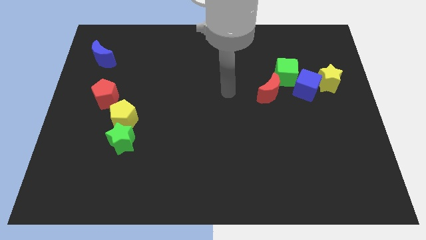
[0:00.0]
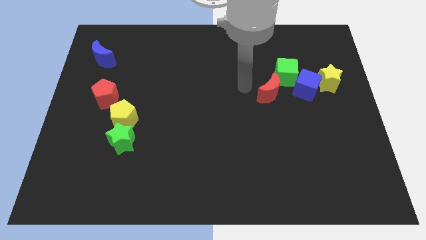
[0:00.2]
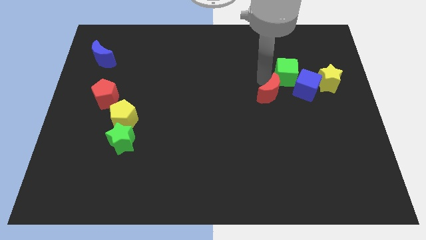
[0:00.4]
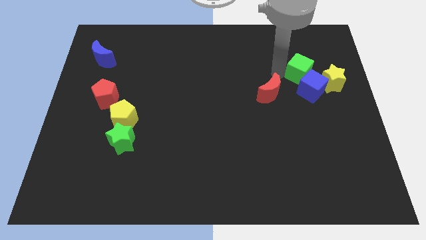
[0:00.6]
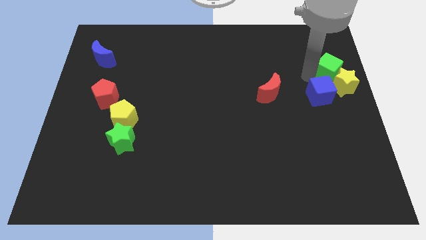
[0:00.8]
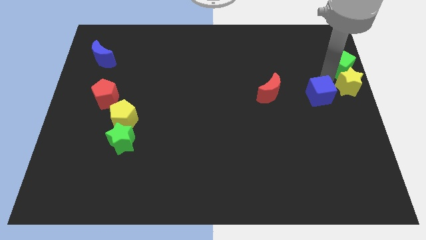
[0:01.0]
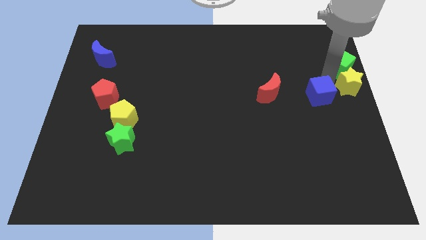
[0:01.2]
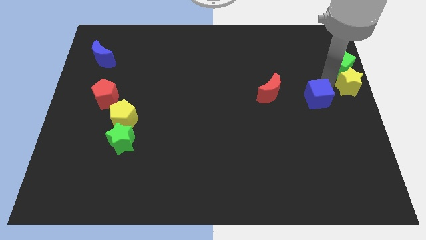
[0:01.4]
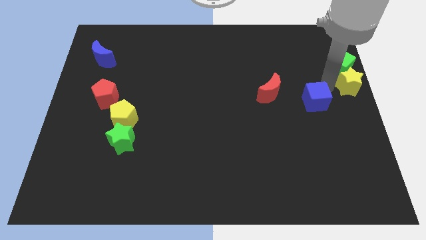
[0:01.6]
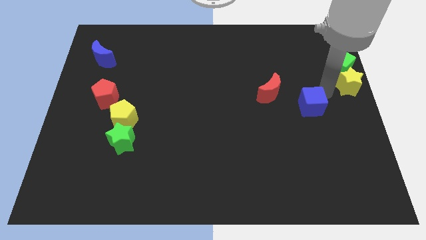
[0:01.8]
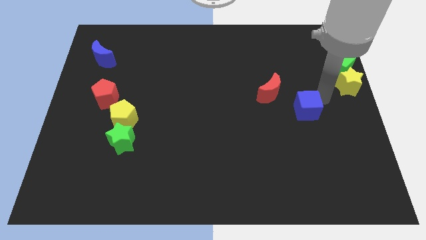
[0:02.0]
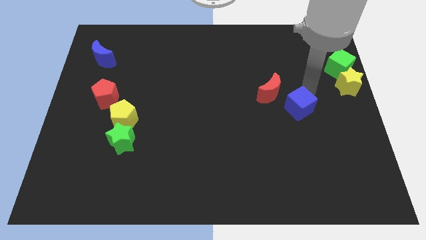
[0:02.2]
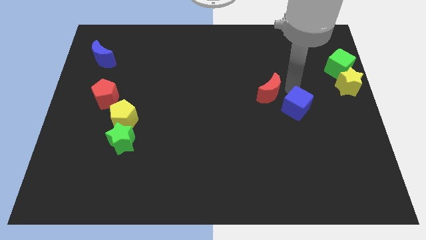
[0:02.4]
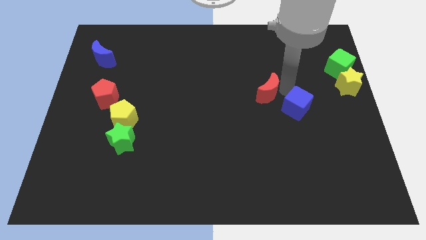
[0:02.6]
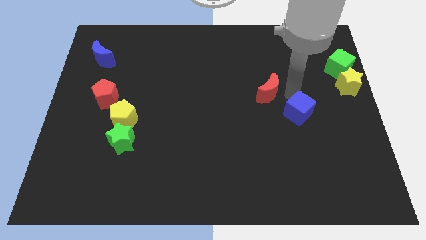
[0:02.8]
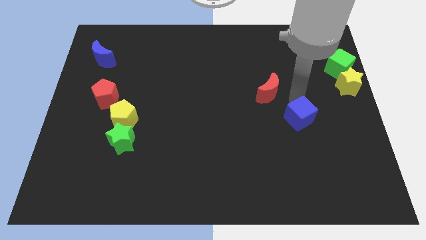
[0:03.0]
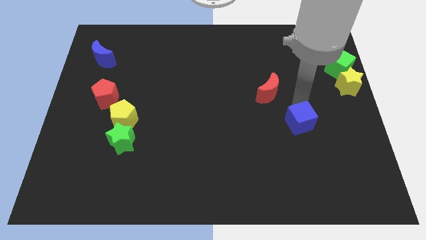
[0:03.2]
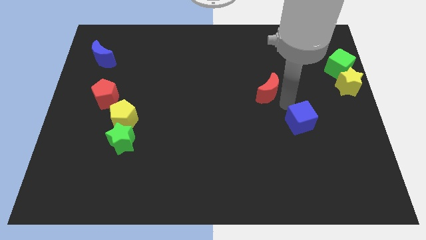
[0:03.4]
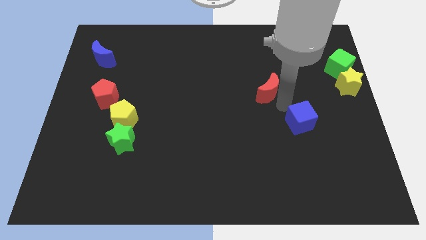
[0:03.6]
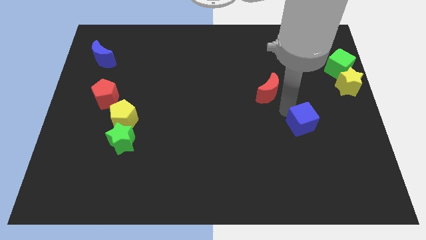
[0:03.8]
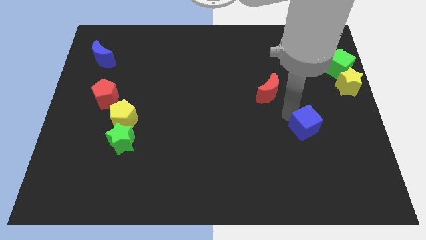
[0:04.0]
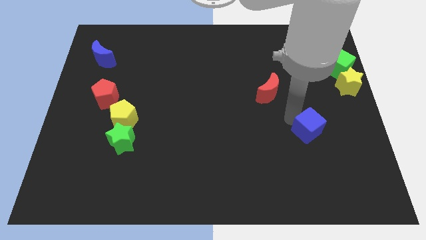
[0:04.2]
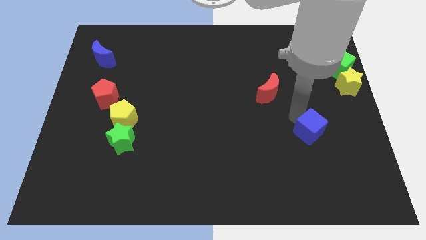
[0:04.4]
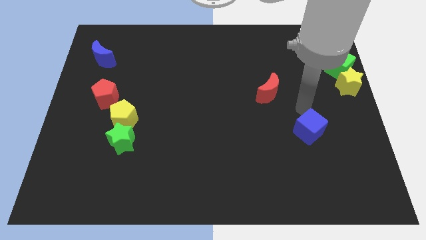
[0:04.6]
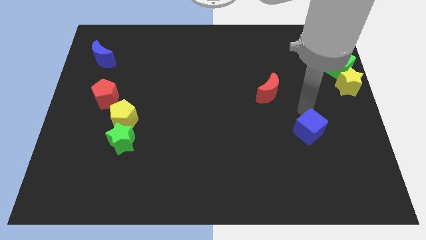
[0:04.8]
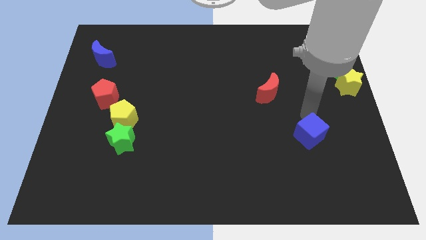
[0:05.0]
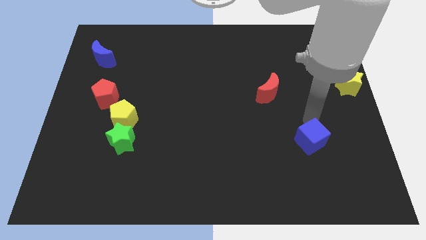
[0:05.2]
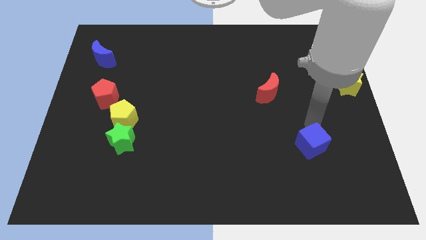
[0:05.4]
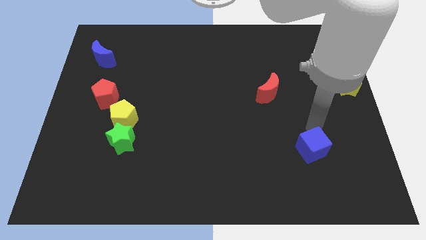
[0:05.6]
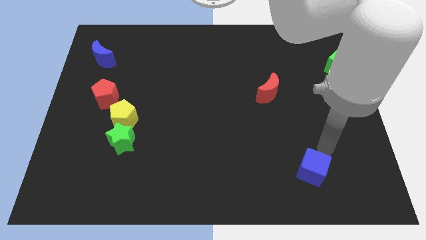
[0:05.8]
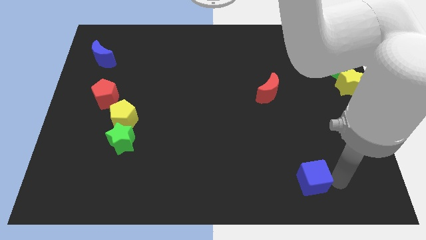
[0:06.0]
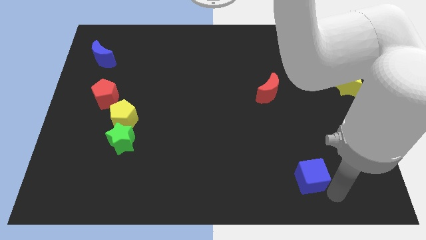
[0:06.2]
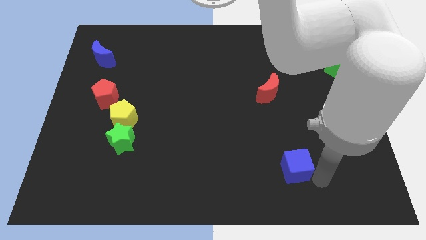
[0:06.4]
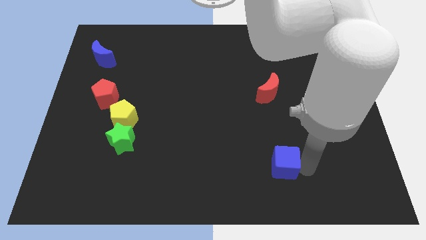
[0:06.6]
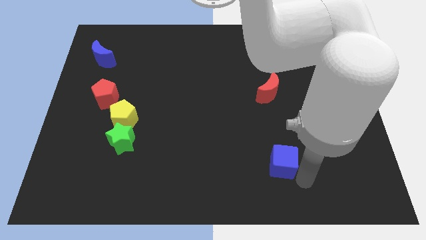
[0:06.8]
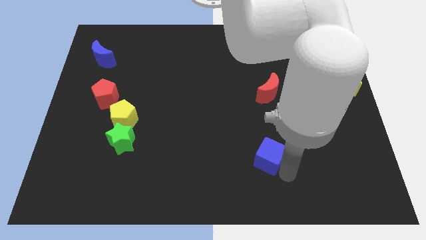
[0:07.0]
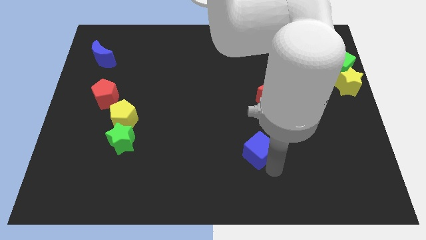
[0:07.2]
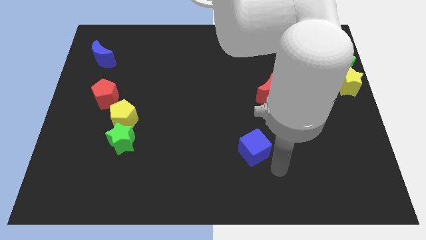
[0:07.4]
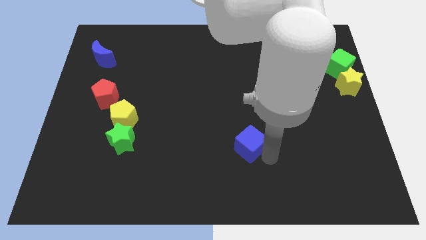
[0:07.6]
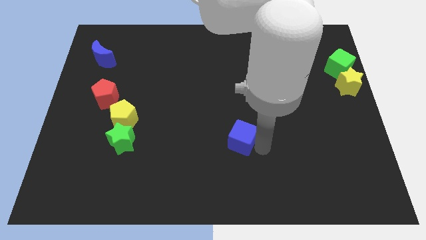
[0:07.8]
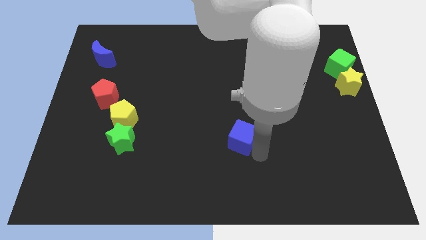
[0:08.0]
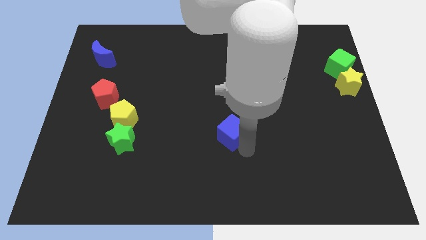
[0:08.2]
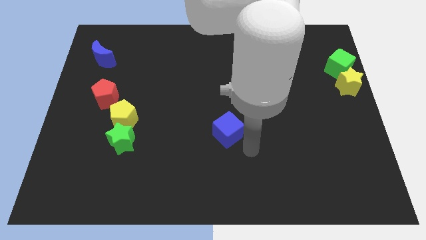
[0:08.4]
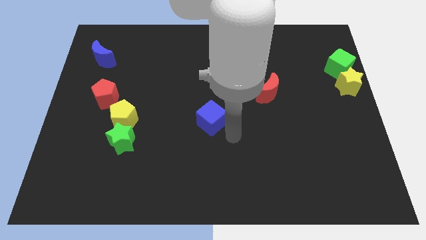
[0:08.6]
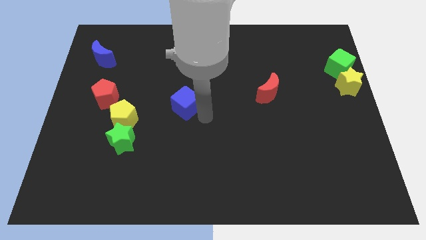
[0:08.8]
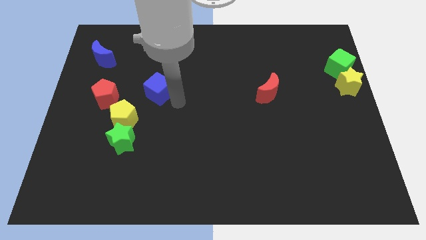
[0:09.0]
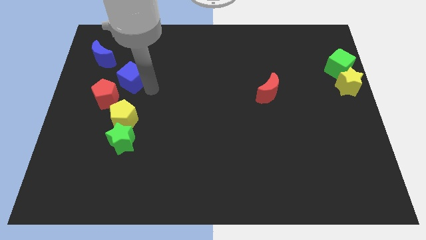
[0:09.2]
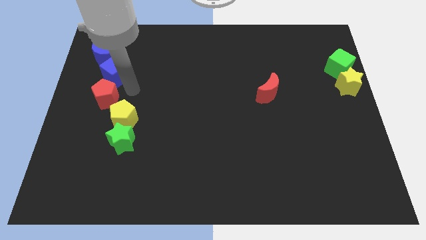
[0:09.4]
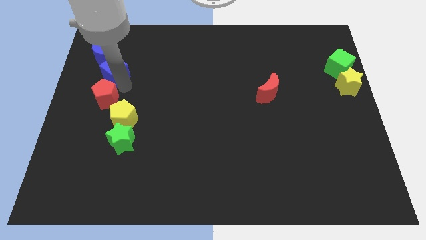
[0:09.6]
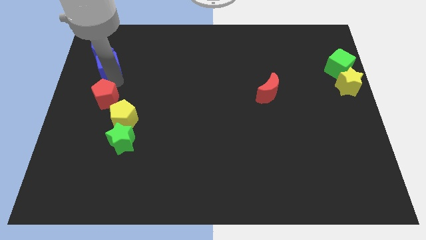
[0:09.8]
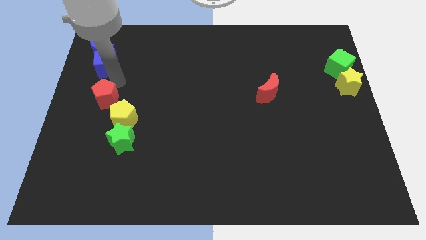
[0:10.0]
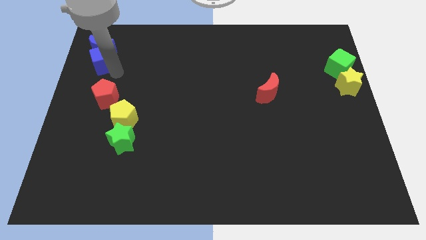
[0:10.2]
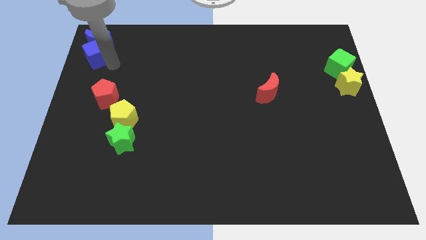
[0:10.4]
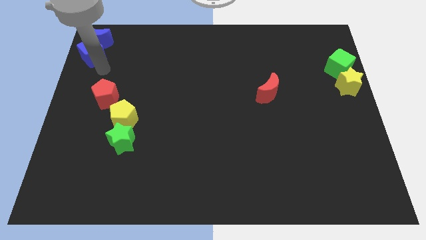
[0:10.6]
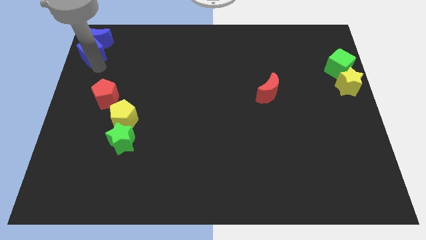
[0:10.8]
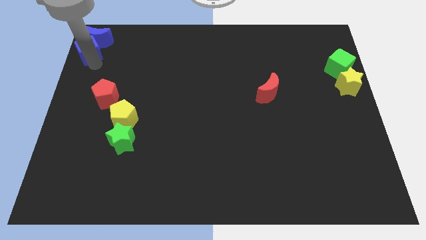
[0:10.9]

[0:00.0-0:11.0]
push the blue cube to the top left

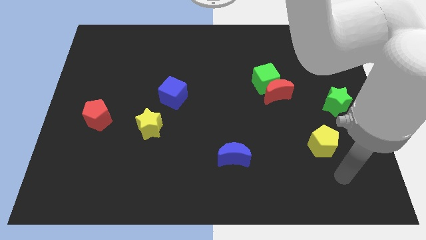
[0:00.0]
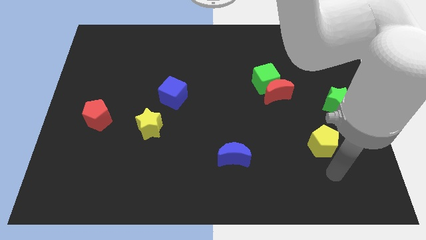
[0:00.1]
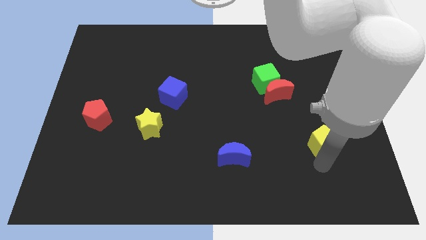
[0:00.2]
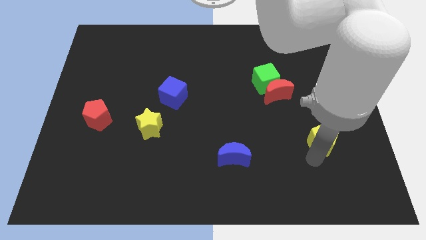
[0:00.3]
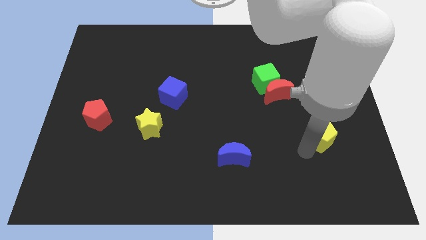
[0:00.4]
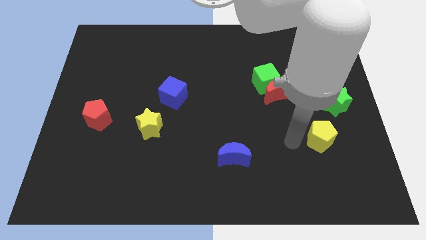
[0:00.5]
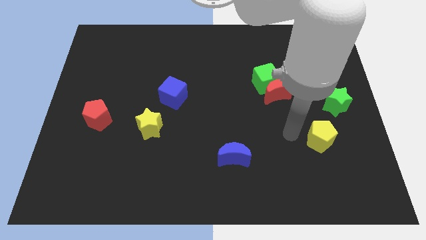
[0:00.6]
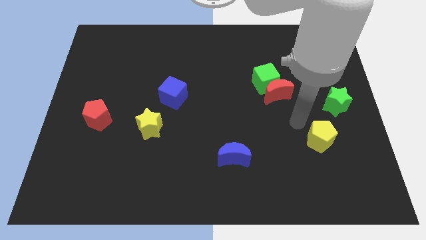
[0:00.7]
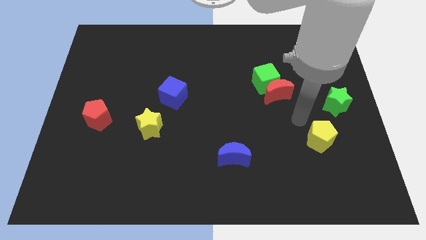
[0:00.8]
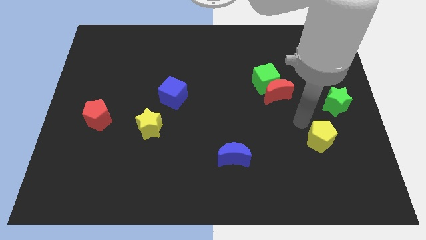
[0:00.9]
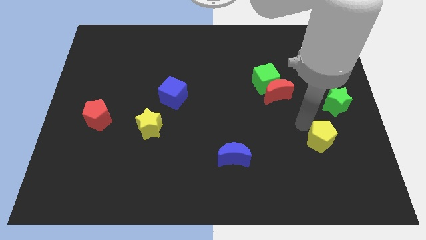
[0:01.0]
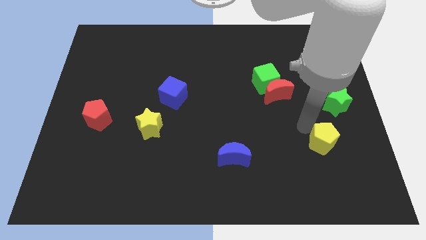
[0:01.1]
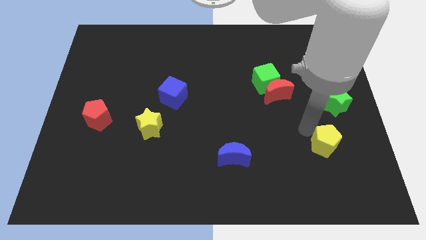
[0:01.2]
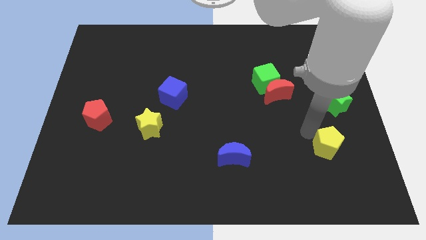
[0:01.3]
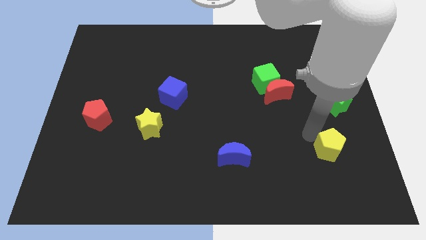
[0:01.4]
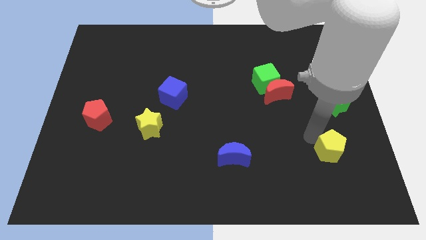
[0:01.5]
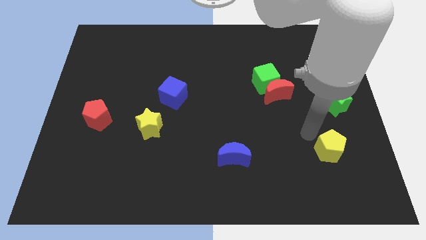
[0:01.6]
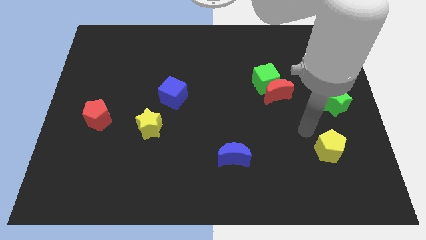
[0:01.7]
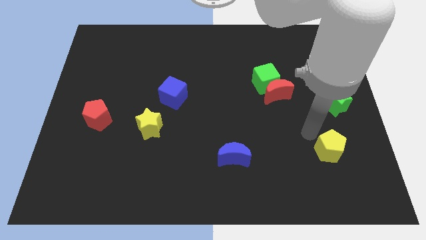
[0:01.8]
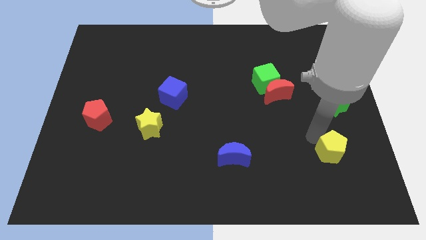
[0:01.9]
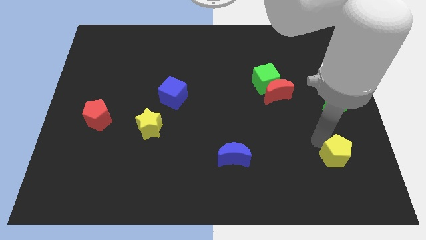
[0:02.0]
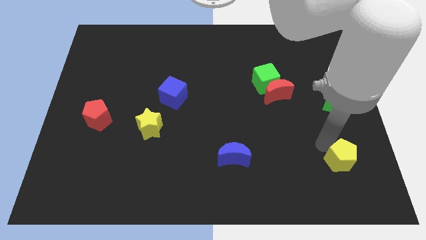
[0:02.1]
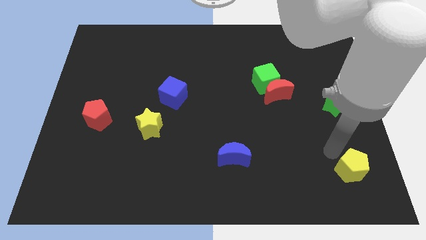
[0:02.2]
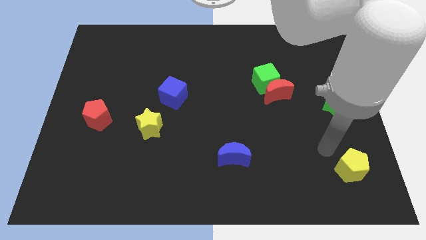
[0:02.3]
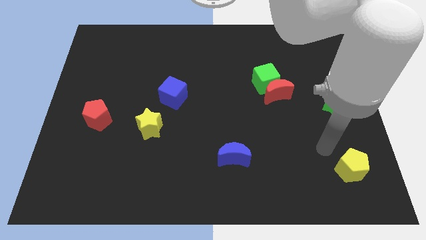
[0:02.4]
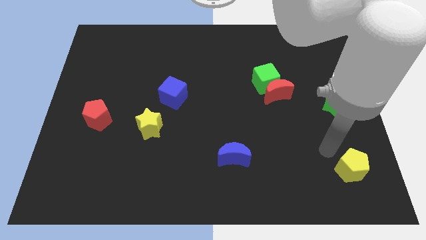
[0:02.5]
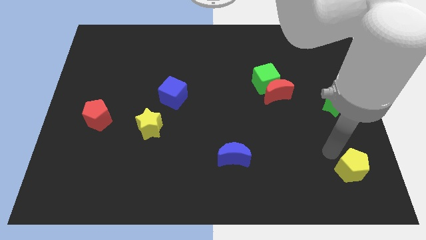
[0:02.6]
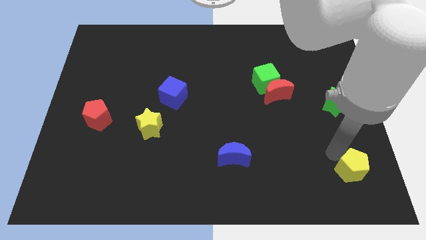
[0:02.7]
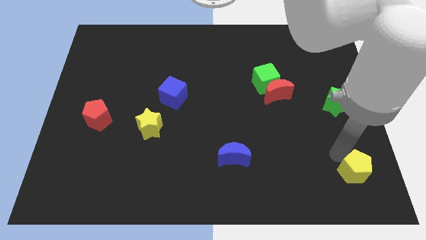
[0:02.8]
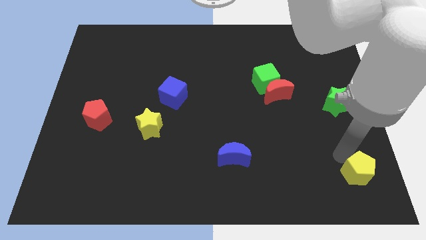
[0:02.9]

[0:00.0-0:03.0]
put the yellow pentagon to the lower right corner
